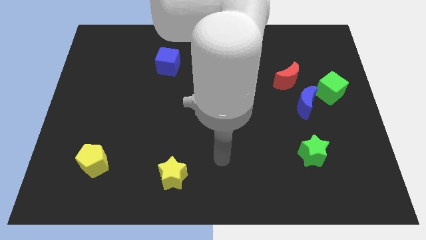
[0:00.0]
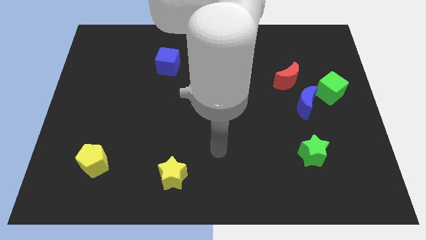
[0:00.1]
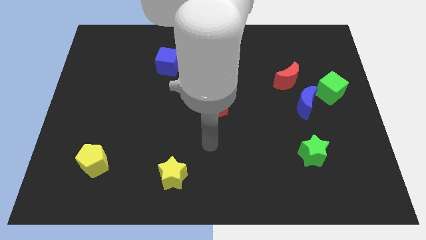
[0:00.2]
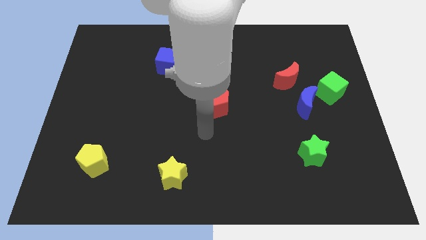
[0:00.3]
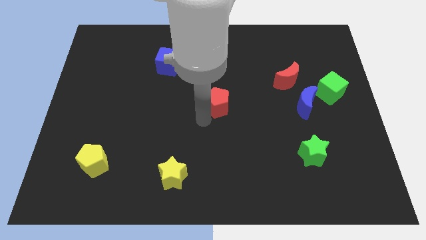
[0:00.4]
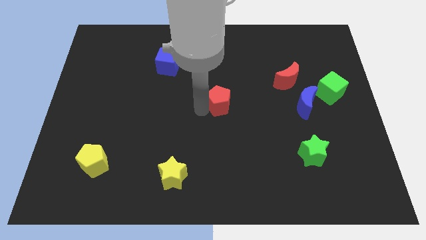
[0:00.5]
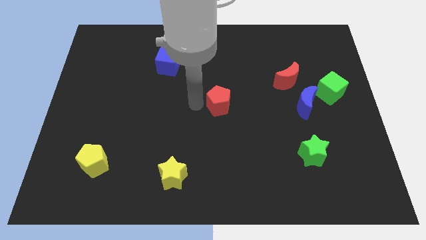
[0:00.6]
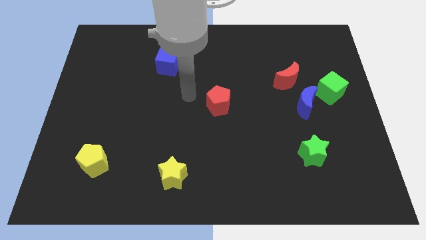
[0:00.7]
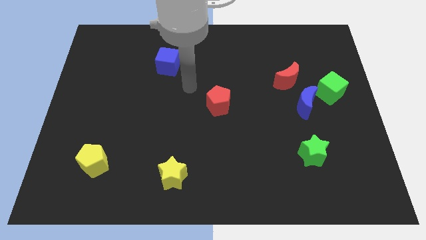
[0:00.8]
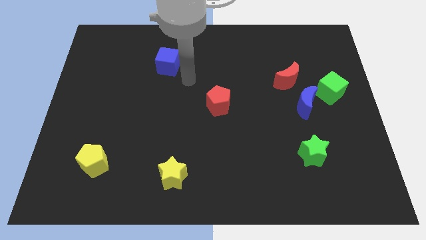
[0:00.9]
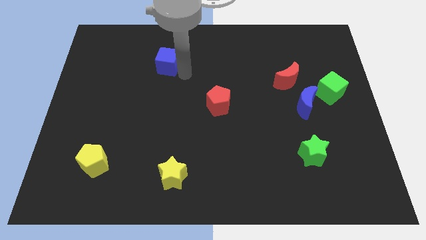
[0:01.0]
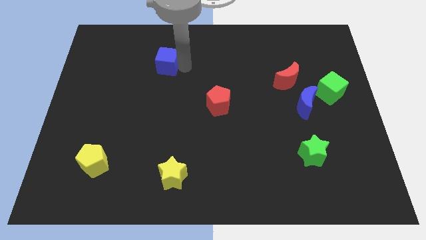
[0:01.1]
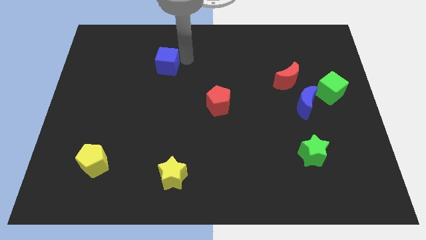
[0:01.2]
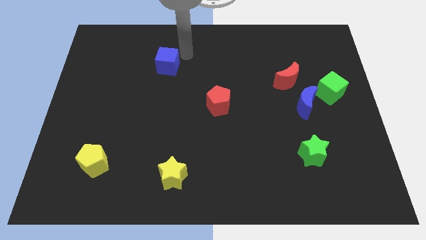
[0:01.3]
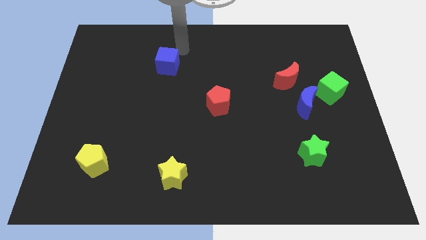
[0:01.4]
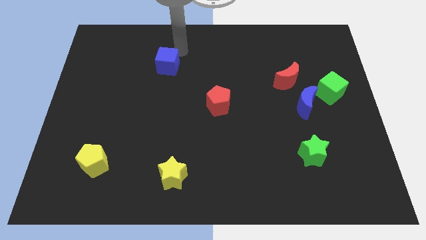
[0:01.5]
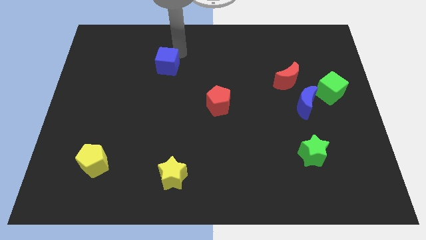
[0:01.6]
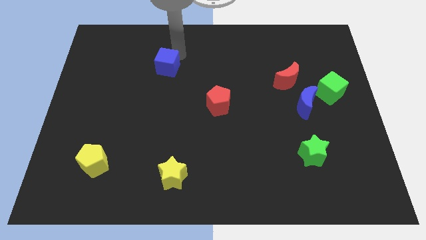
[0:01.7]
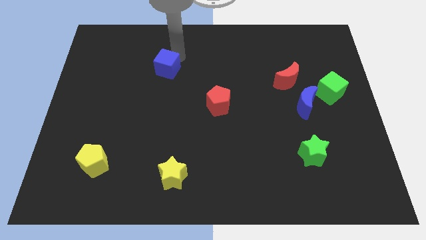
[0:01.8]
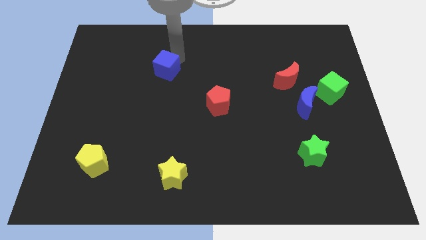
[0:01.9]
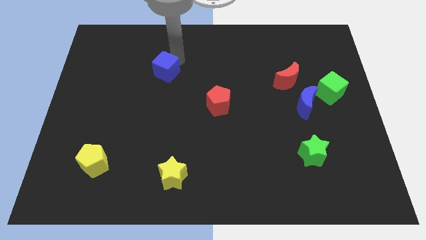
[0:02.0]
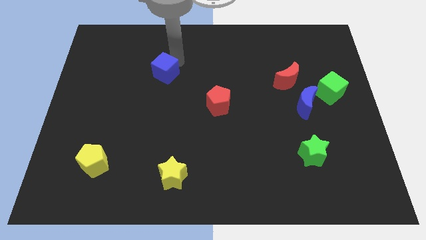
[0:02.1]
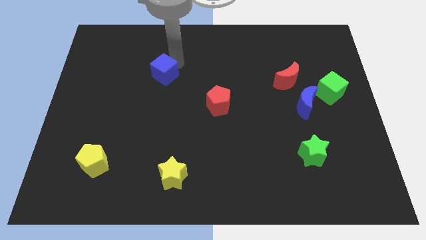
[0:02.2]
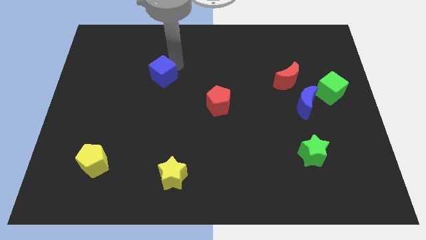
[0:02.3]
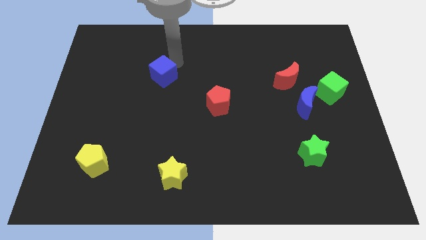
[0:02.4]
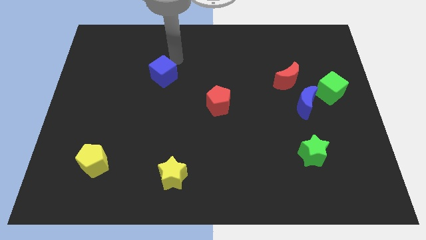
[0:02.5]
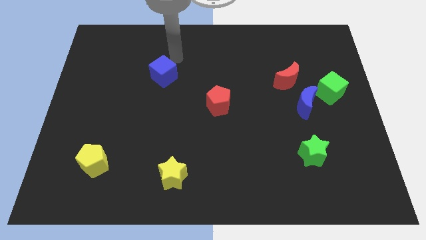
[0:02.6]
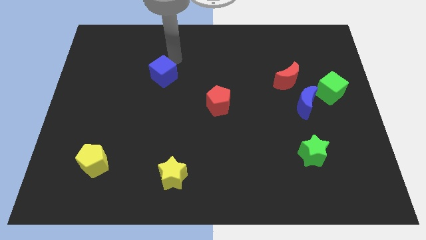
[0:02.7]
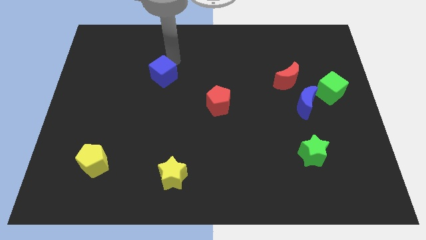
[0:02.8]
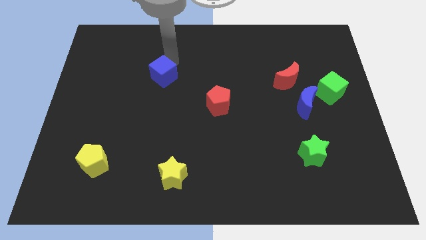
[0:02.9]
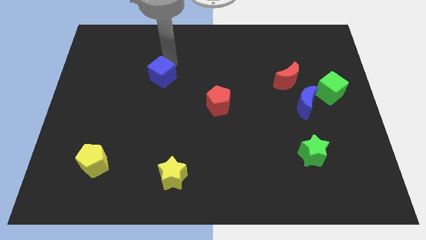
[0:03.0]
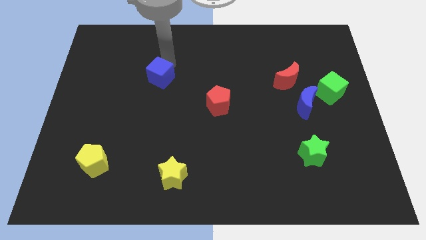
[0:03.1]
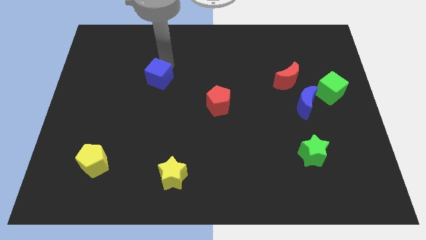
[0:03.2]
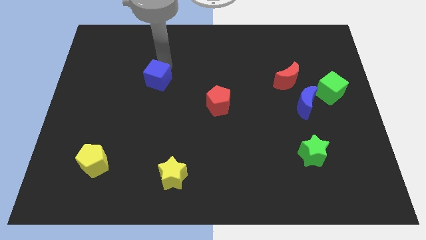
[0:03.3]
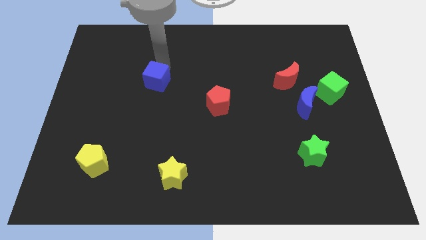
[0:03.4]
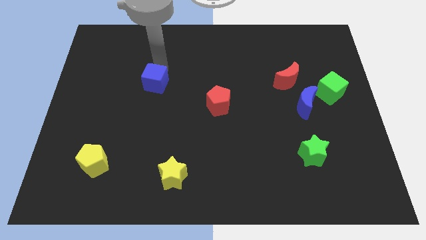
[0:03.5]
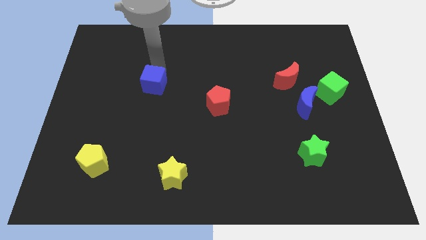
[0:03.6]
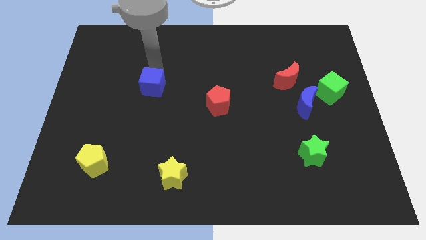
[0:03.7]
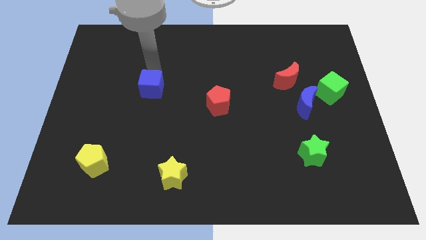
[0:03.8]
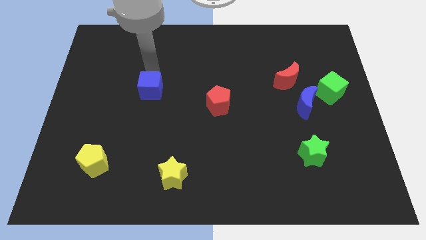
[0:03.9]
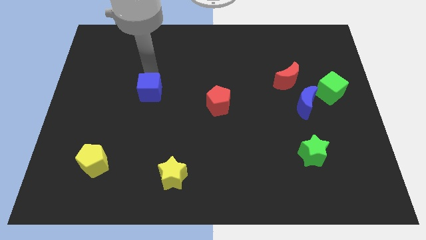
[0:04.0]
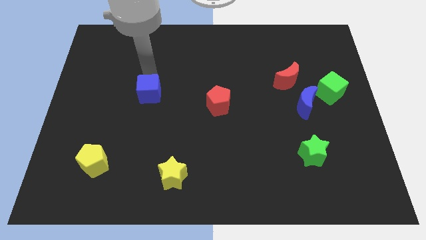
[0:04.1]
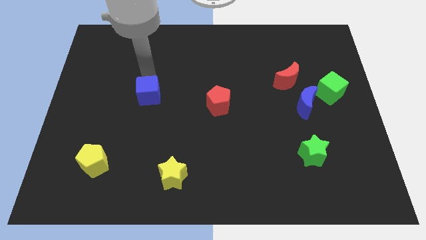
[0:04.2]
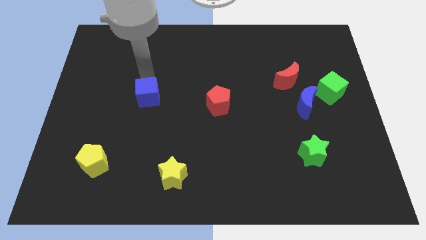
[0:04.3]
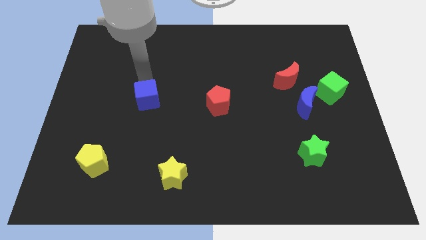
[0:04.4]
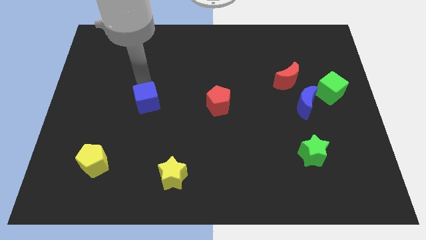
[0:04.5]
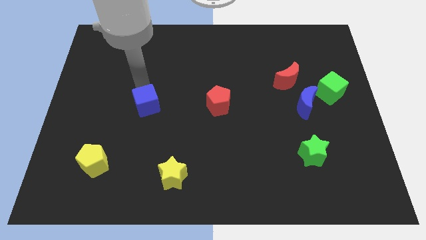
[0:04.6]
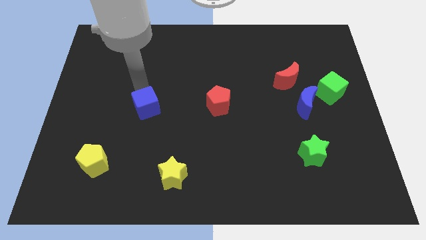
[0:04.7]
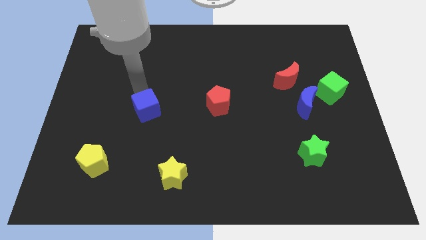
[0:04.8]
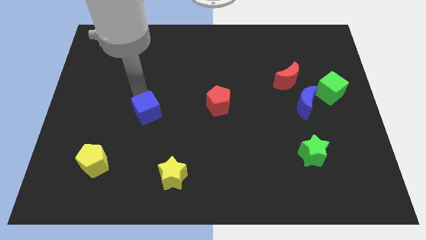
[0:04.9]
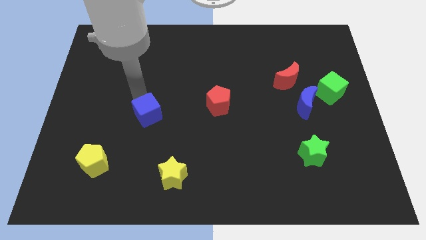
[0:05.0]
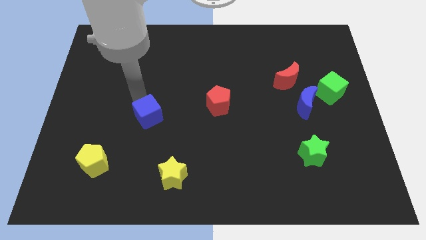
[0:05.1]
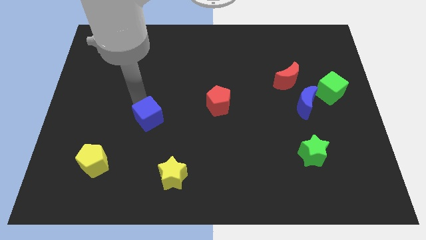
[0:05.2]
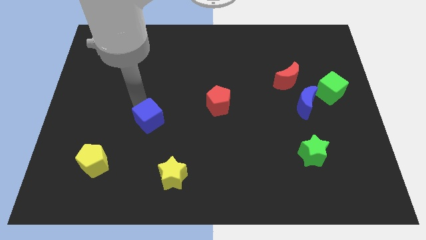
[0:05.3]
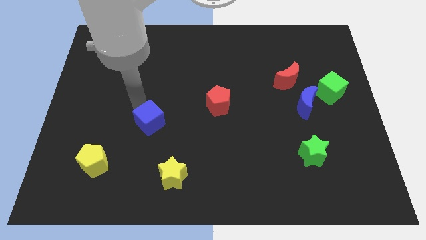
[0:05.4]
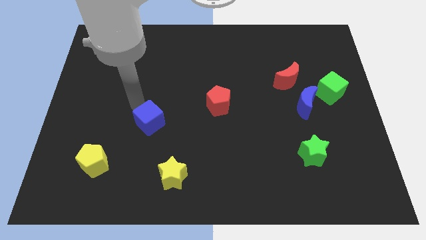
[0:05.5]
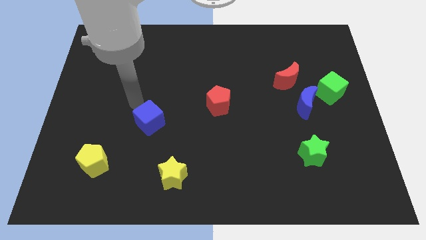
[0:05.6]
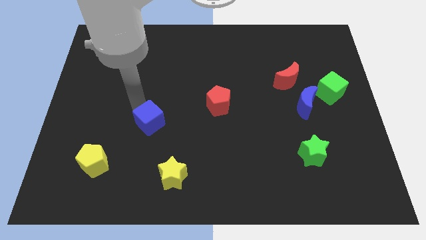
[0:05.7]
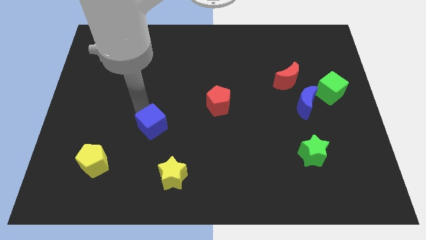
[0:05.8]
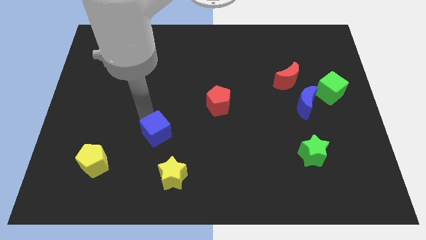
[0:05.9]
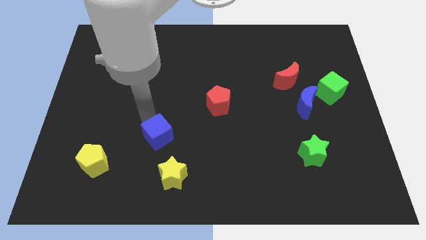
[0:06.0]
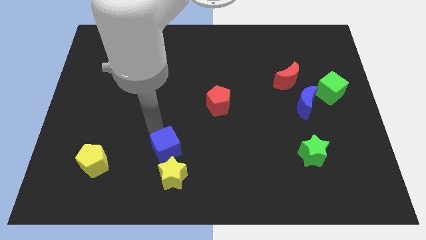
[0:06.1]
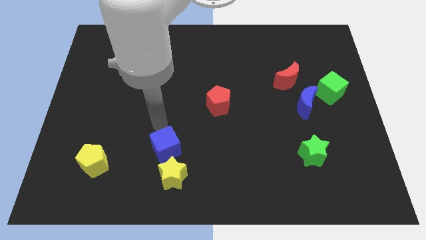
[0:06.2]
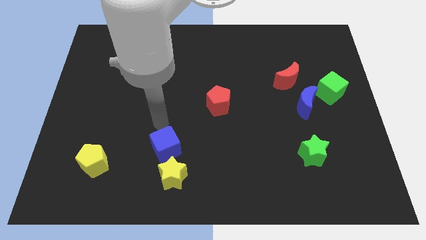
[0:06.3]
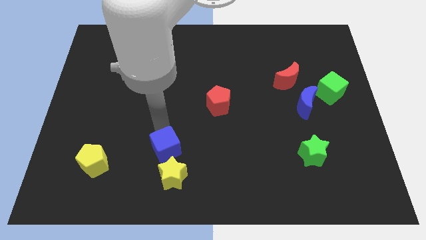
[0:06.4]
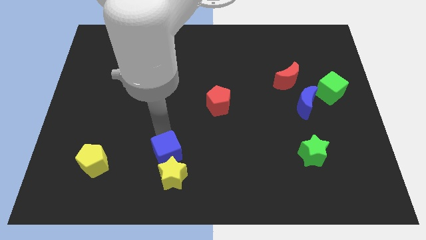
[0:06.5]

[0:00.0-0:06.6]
put the blue cube close to the yellow star
